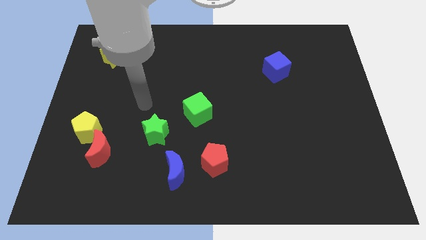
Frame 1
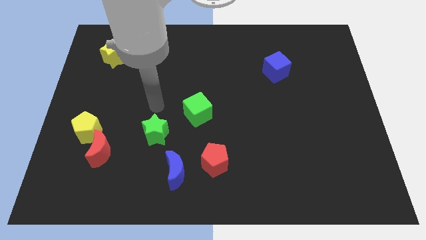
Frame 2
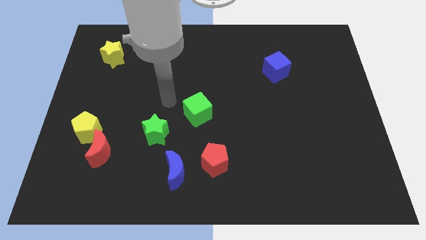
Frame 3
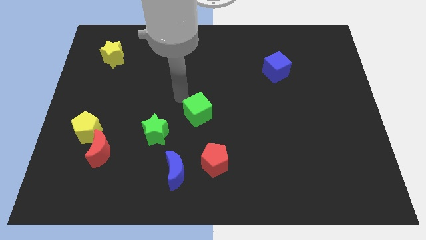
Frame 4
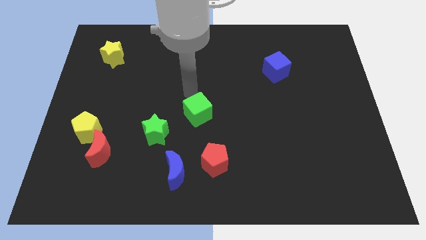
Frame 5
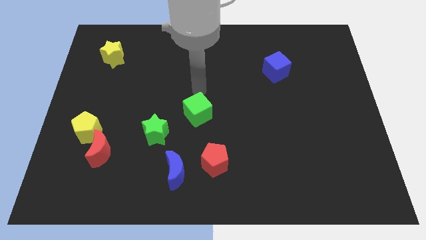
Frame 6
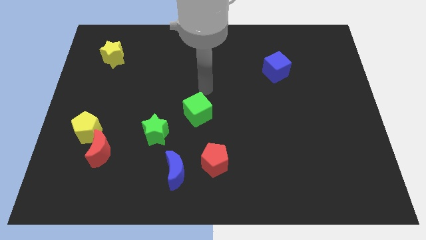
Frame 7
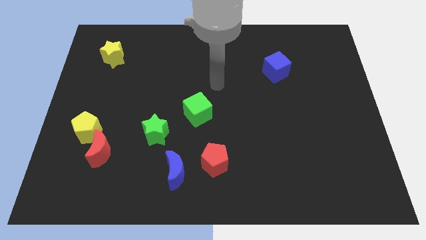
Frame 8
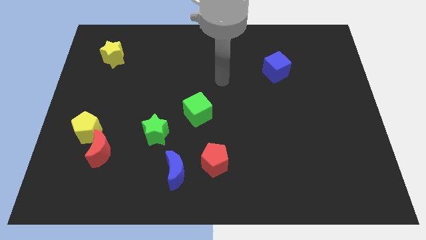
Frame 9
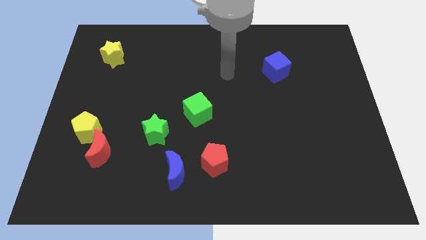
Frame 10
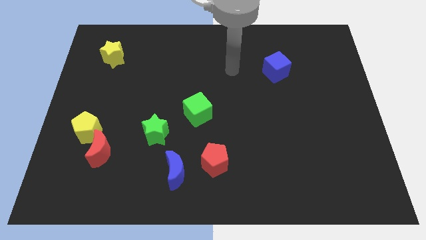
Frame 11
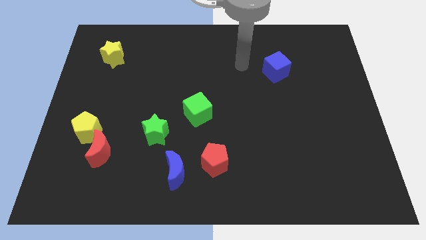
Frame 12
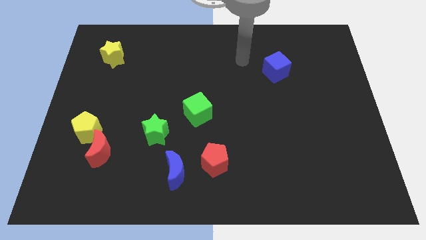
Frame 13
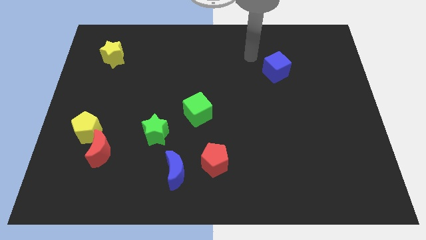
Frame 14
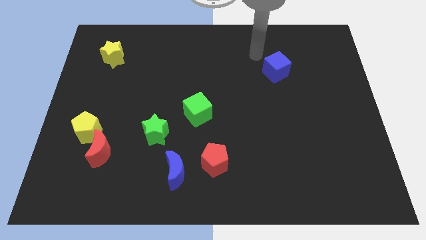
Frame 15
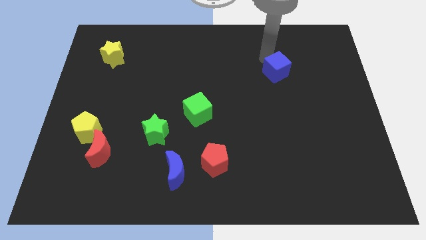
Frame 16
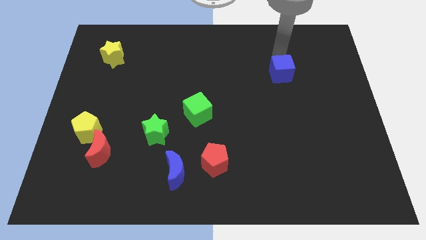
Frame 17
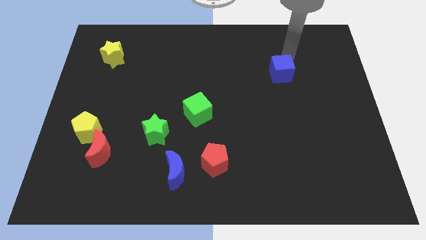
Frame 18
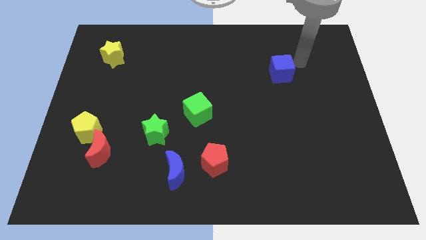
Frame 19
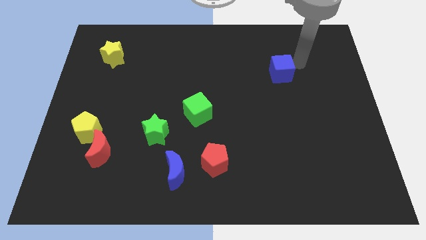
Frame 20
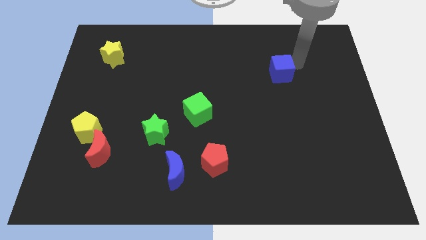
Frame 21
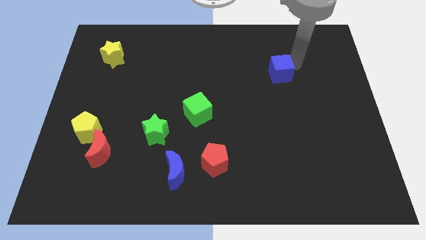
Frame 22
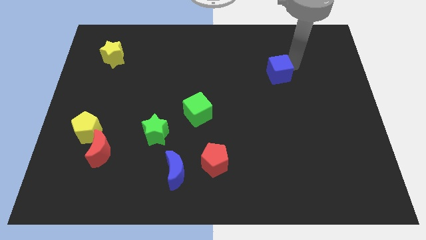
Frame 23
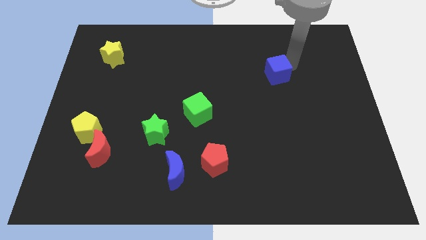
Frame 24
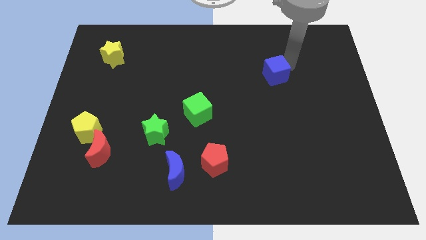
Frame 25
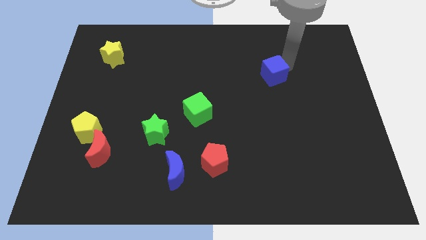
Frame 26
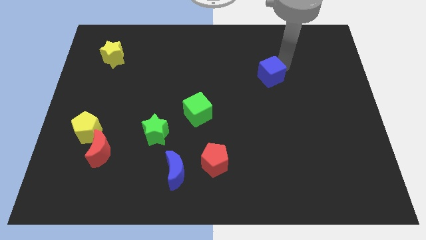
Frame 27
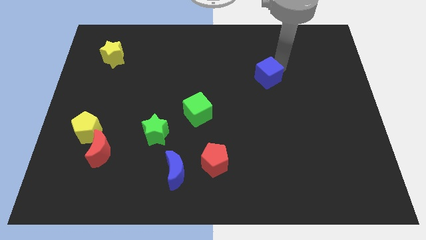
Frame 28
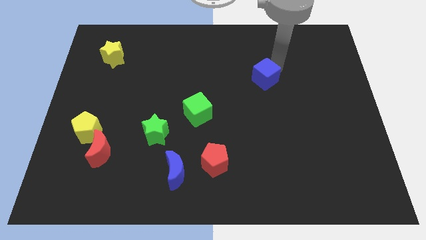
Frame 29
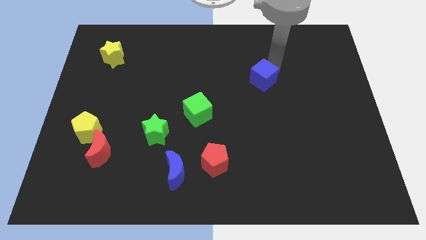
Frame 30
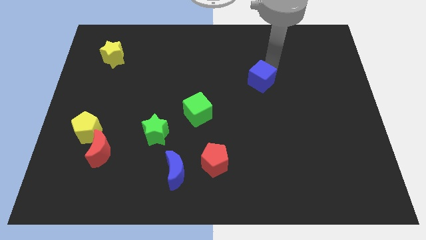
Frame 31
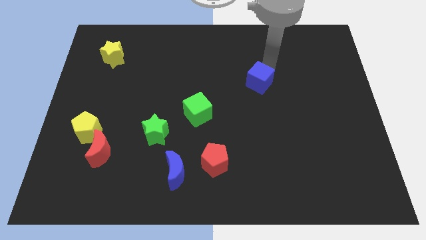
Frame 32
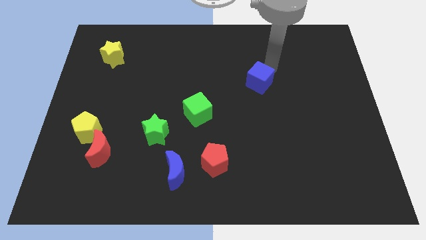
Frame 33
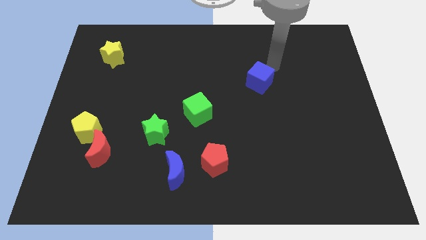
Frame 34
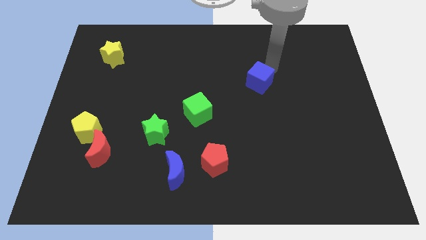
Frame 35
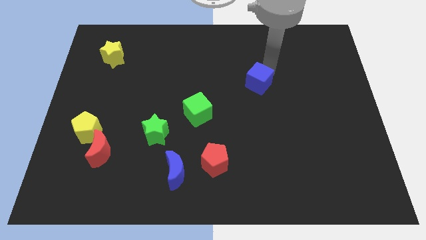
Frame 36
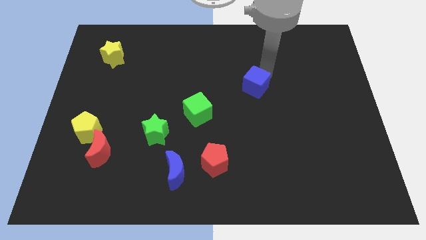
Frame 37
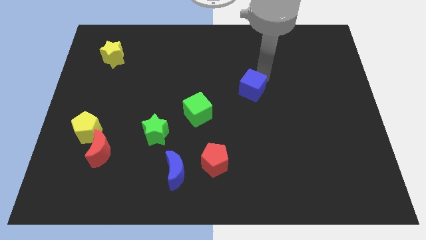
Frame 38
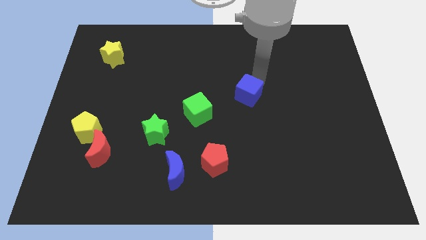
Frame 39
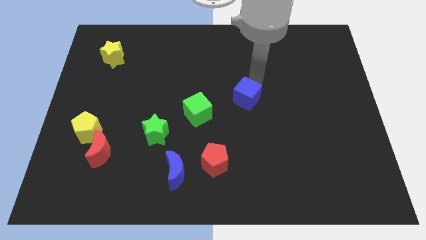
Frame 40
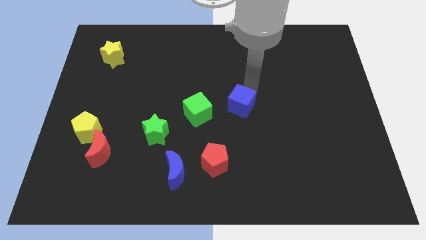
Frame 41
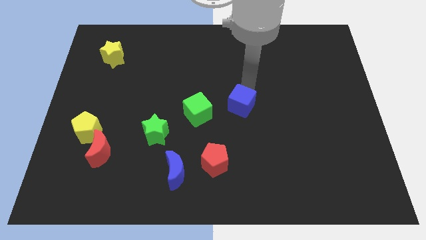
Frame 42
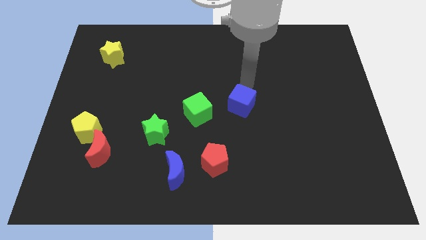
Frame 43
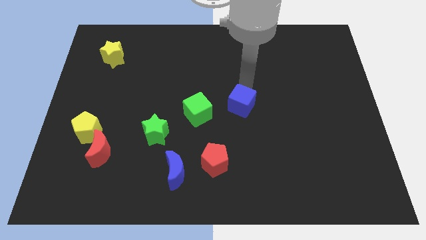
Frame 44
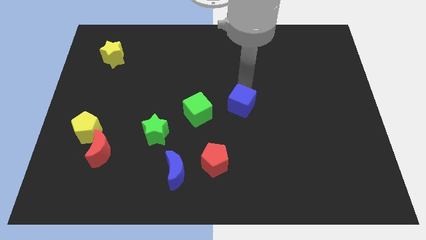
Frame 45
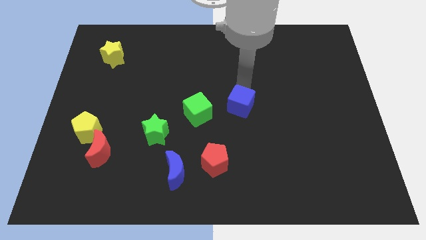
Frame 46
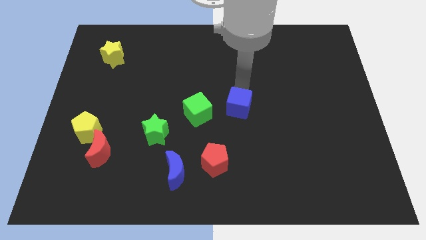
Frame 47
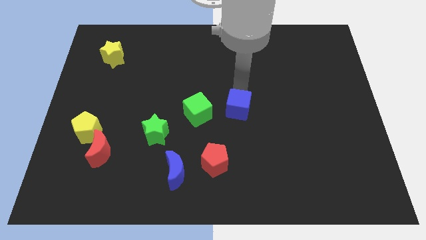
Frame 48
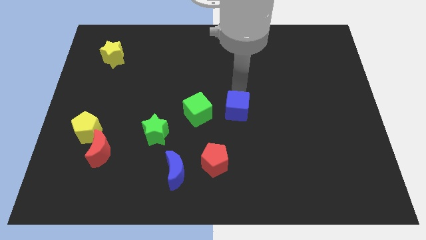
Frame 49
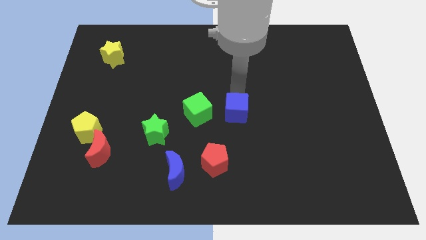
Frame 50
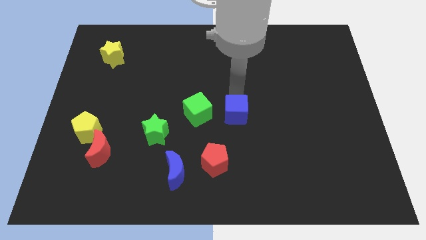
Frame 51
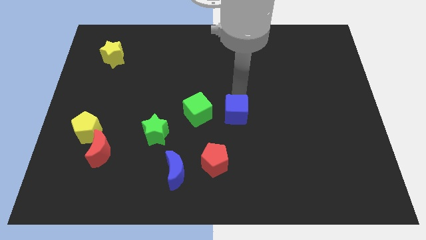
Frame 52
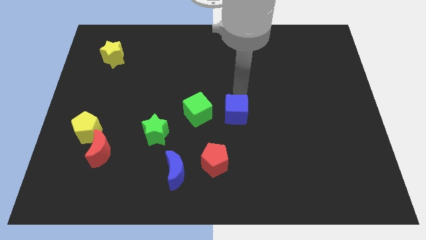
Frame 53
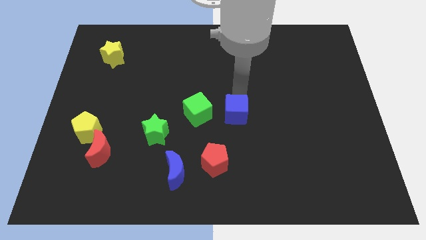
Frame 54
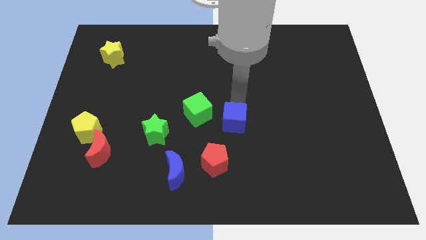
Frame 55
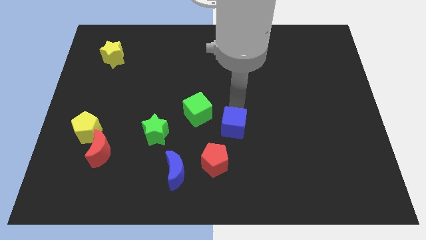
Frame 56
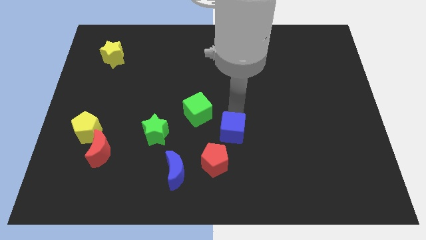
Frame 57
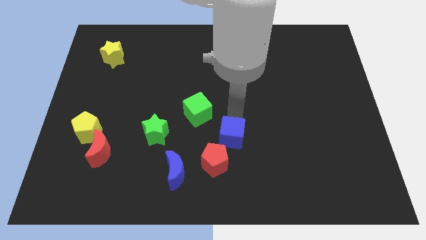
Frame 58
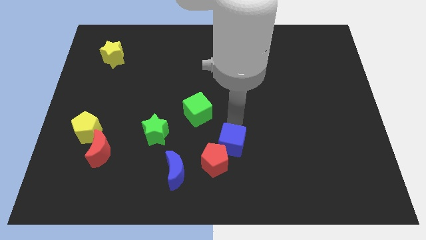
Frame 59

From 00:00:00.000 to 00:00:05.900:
slide the blue cube close to the red pentagon

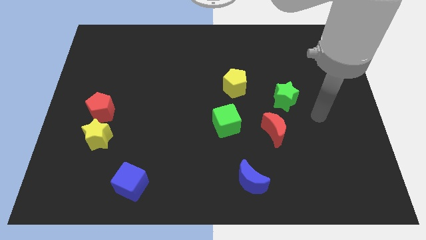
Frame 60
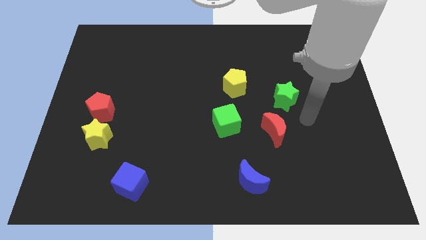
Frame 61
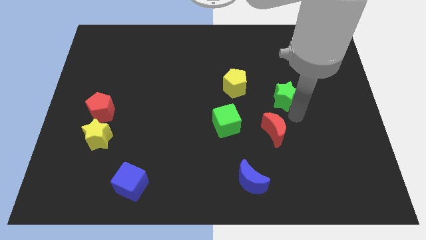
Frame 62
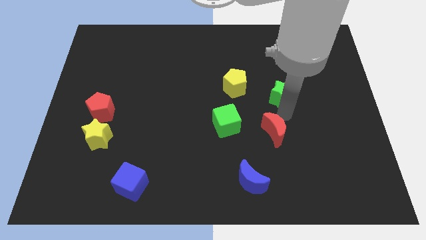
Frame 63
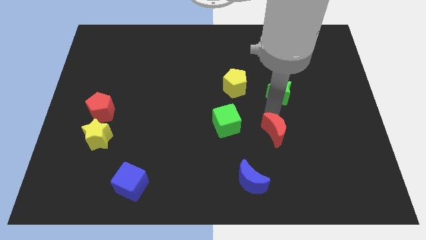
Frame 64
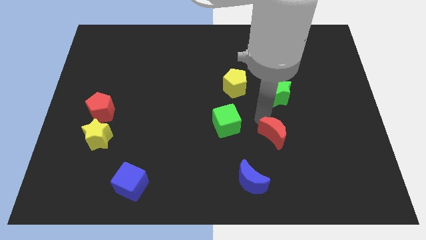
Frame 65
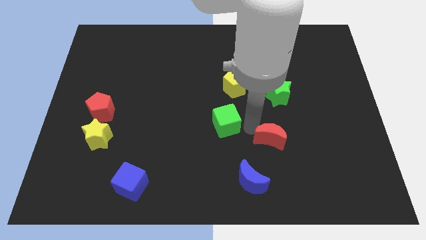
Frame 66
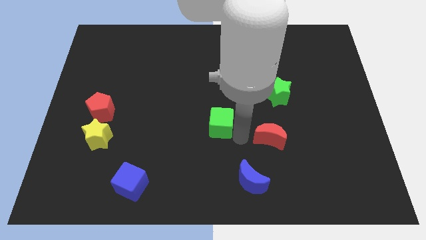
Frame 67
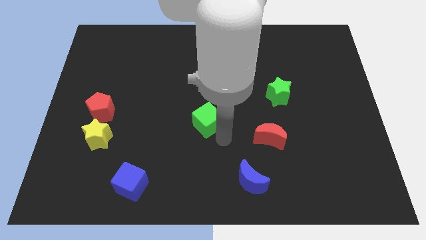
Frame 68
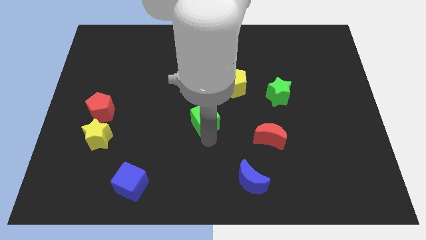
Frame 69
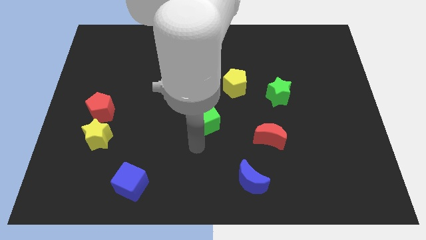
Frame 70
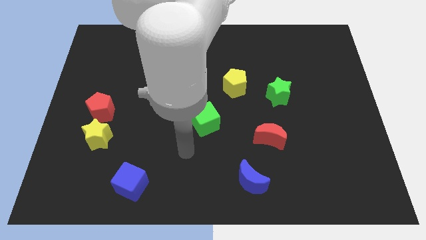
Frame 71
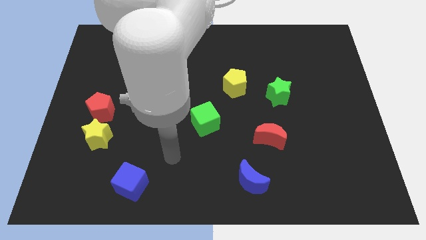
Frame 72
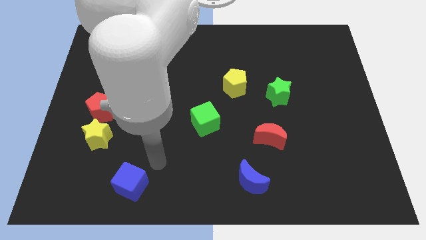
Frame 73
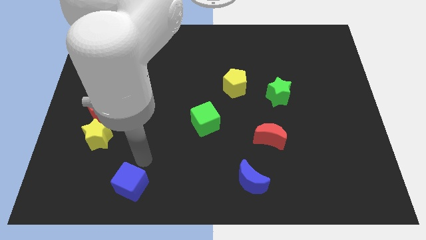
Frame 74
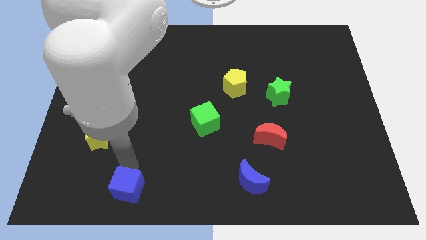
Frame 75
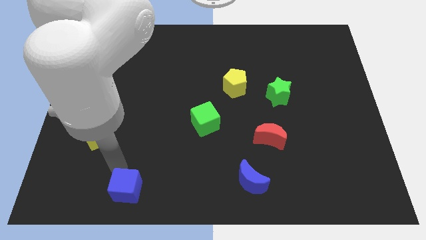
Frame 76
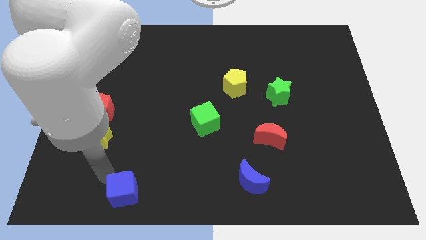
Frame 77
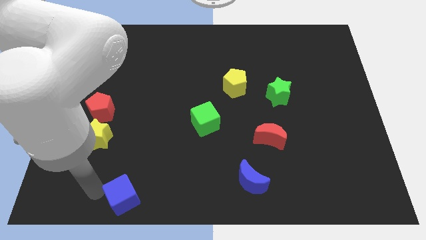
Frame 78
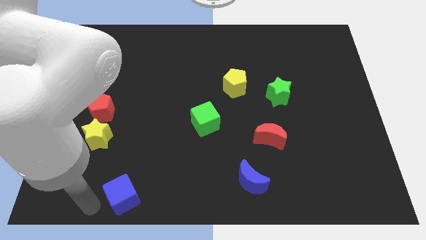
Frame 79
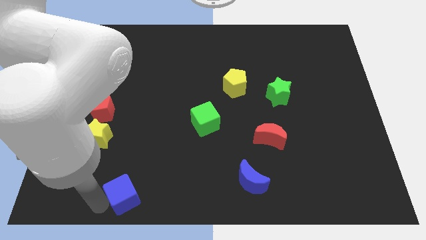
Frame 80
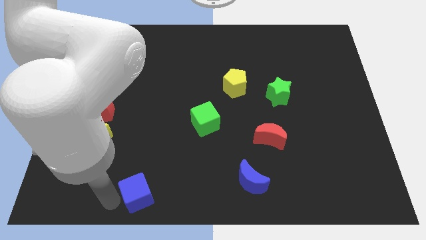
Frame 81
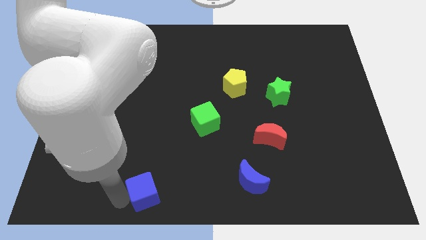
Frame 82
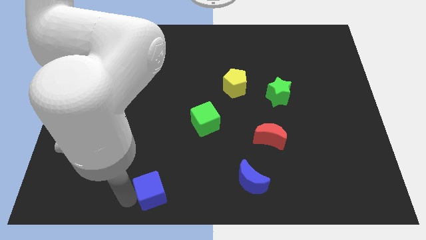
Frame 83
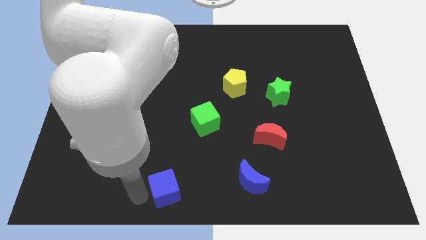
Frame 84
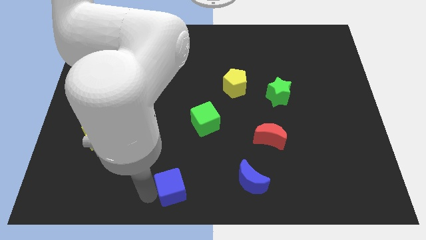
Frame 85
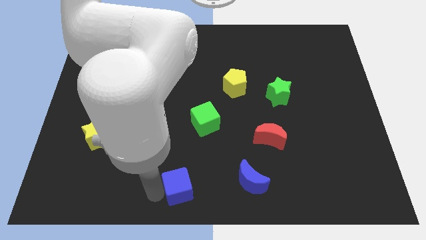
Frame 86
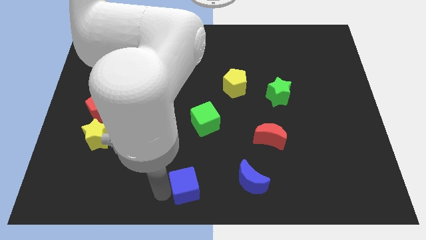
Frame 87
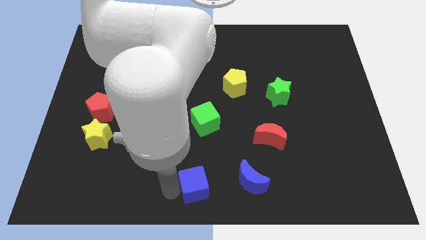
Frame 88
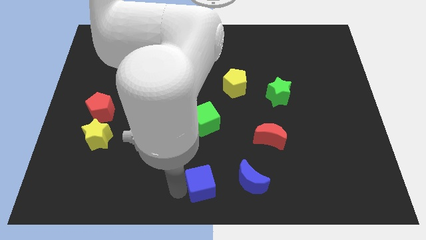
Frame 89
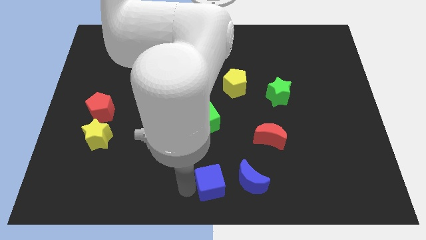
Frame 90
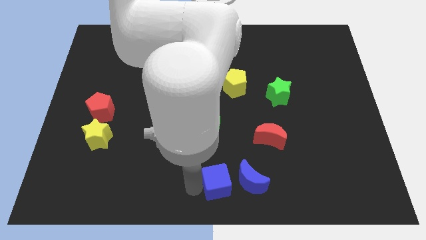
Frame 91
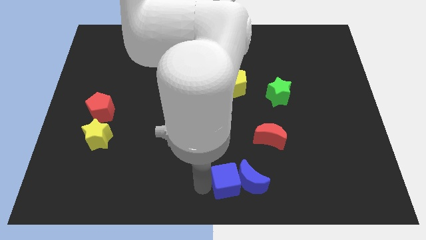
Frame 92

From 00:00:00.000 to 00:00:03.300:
put the blue cube next to the blue moon
